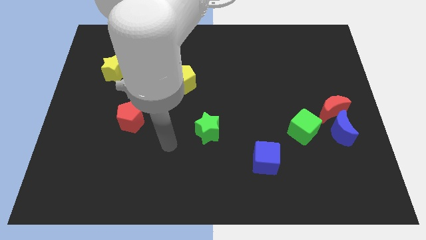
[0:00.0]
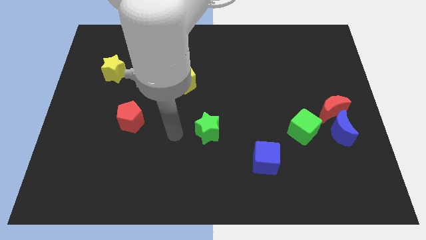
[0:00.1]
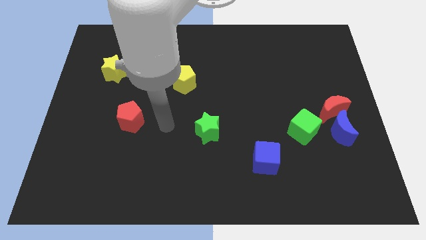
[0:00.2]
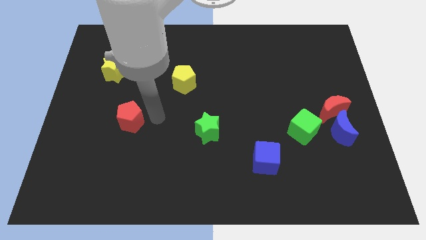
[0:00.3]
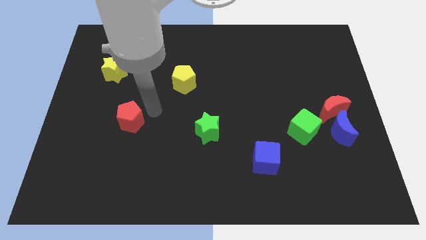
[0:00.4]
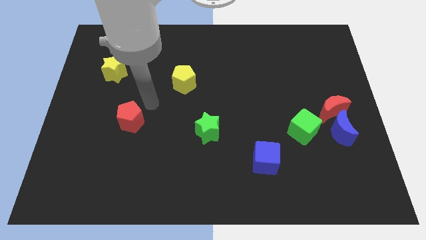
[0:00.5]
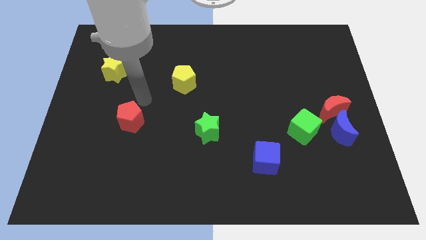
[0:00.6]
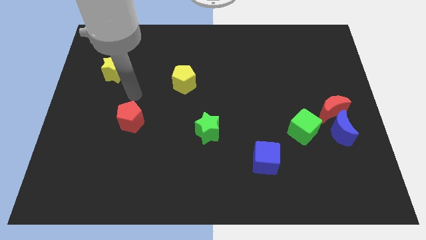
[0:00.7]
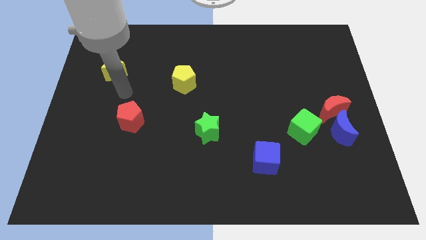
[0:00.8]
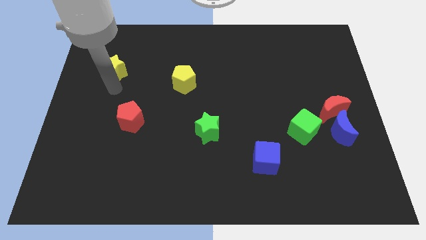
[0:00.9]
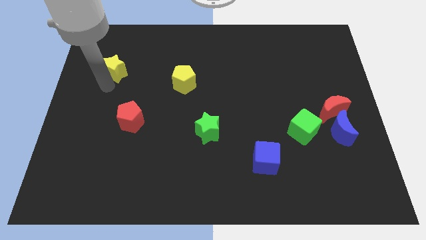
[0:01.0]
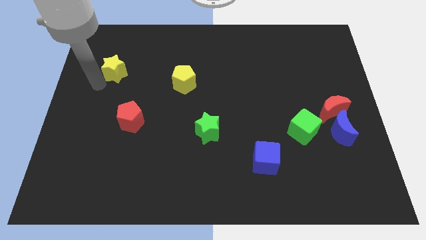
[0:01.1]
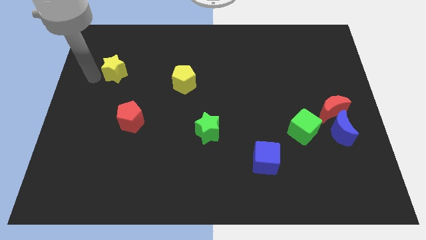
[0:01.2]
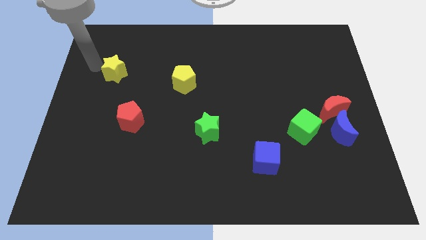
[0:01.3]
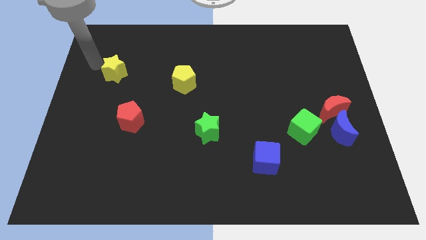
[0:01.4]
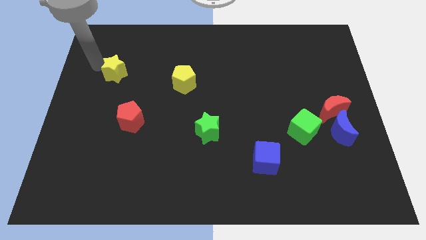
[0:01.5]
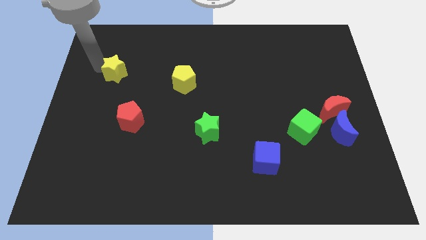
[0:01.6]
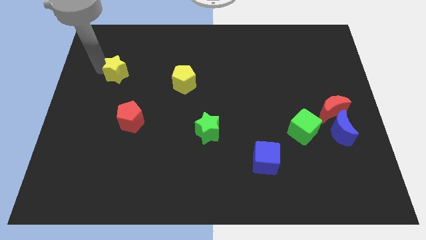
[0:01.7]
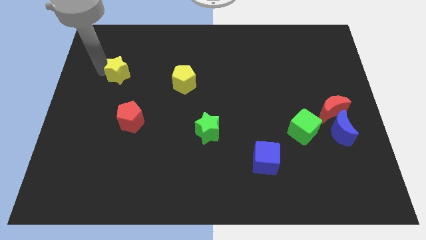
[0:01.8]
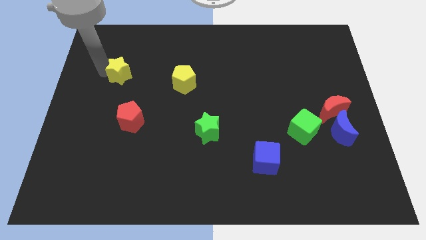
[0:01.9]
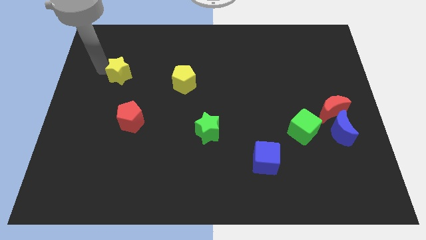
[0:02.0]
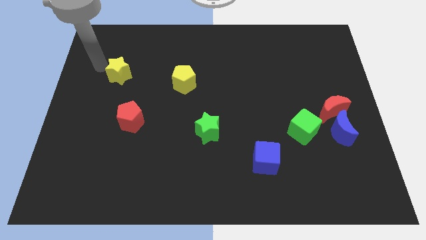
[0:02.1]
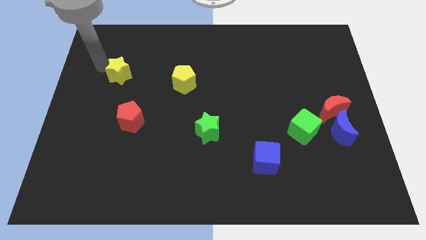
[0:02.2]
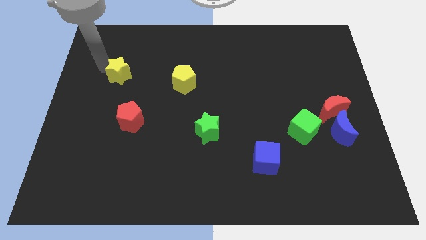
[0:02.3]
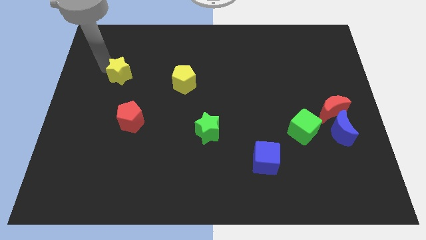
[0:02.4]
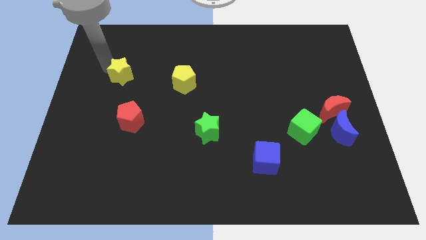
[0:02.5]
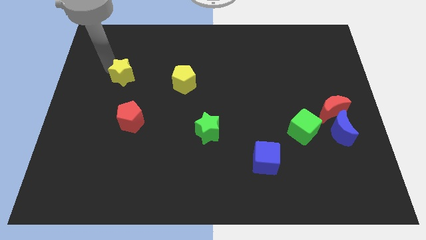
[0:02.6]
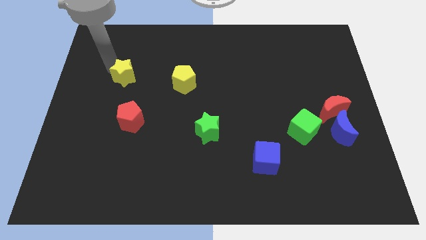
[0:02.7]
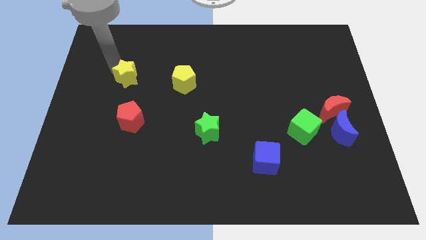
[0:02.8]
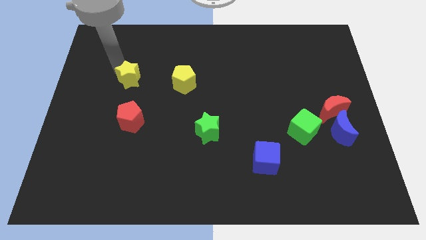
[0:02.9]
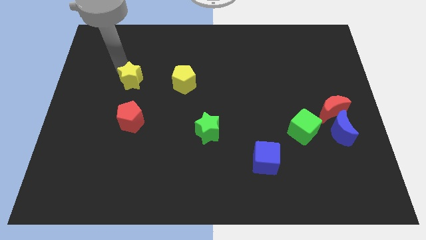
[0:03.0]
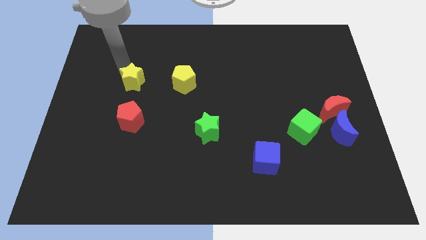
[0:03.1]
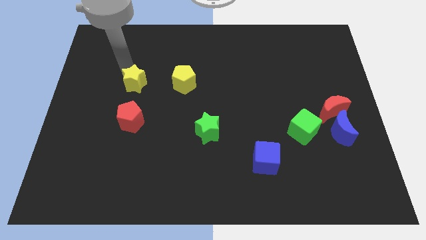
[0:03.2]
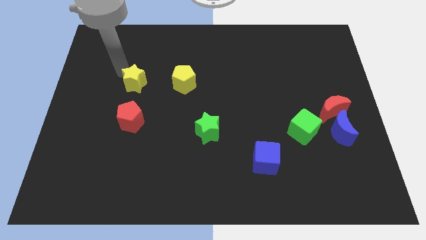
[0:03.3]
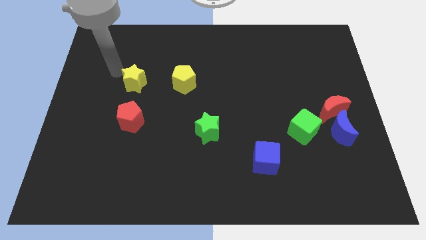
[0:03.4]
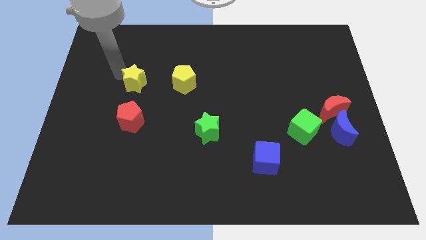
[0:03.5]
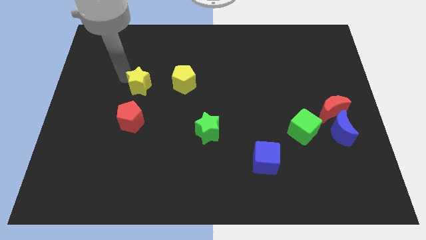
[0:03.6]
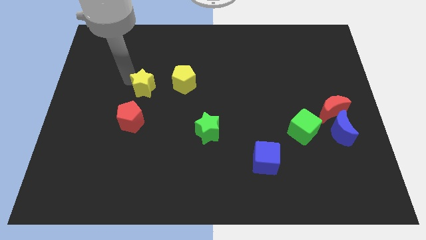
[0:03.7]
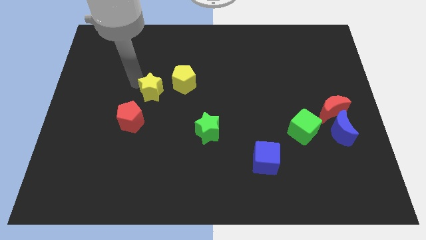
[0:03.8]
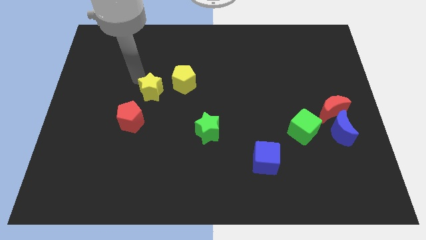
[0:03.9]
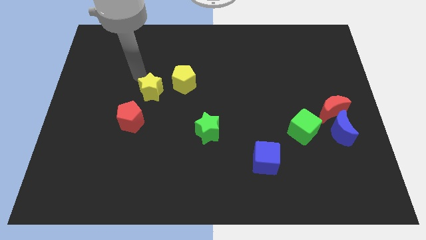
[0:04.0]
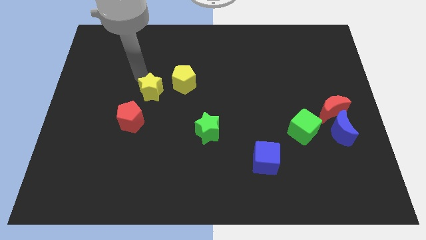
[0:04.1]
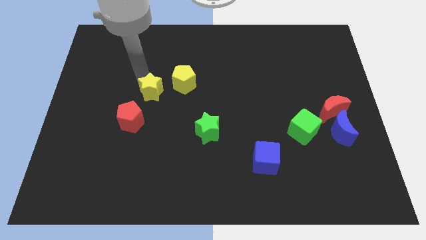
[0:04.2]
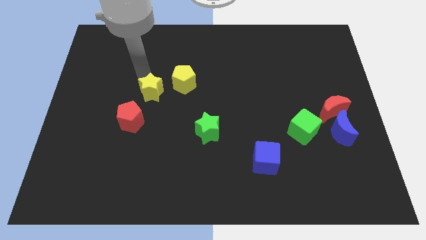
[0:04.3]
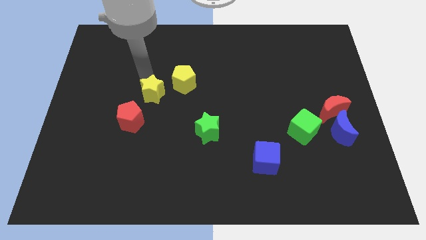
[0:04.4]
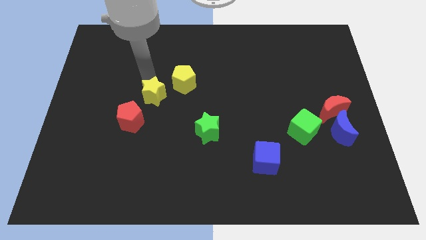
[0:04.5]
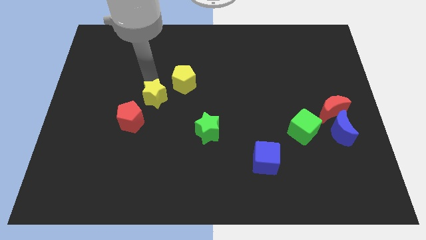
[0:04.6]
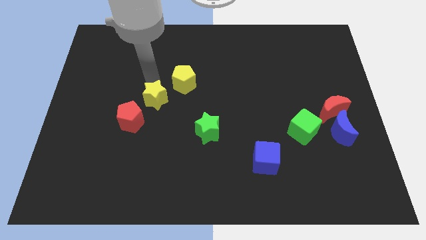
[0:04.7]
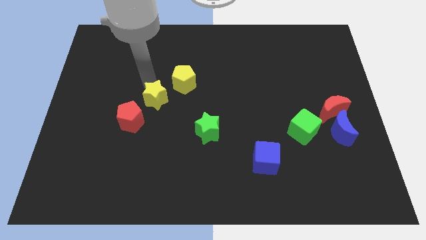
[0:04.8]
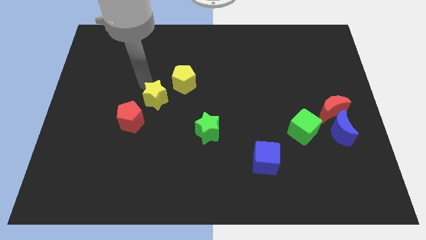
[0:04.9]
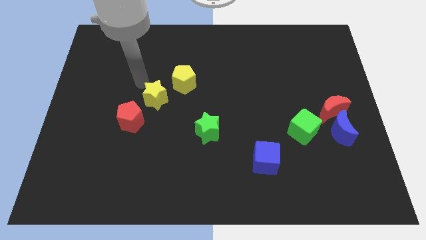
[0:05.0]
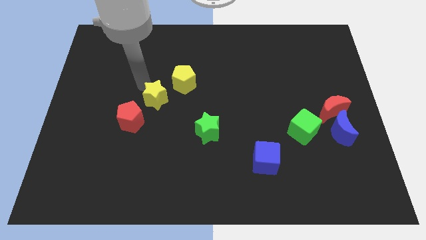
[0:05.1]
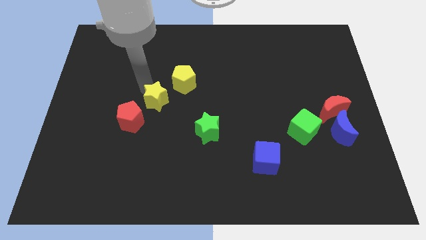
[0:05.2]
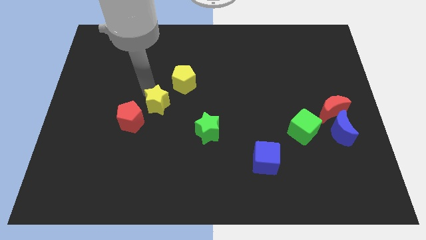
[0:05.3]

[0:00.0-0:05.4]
put the yellow star to the right side of the red pentagon

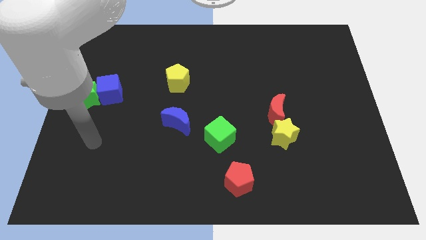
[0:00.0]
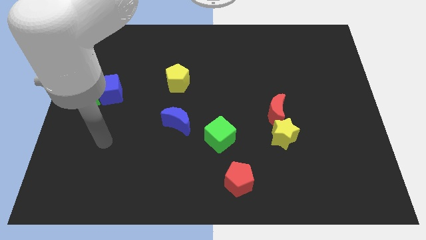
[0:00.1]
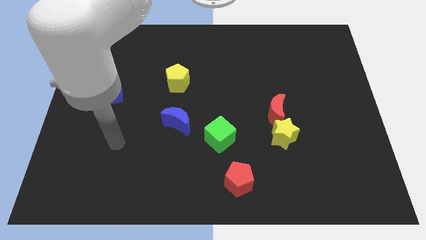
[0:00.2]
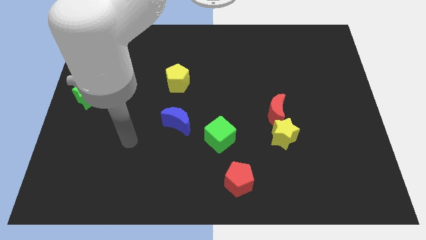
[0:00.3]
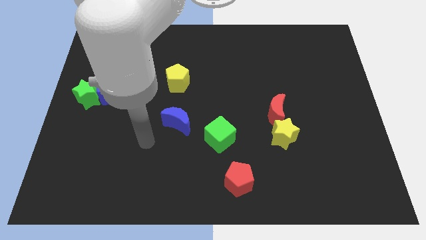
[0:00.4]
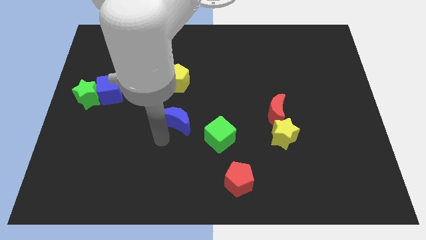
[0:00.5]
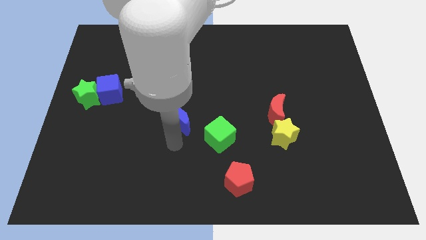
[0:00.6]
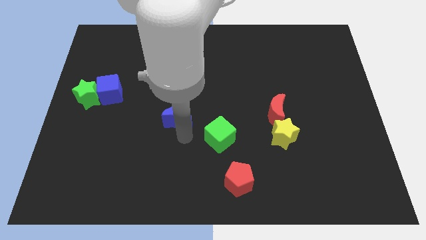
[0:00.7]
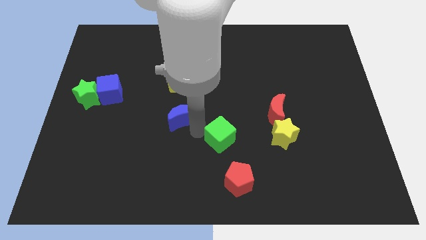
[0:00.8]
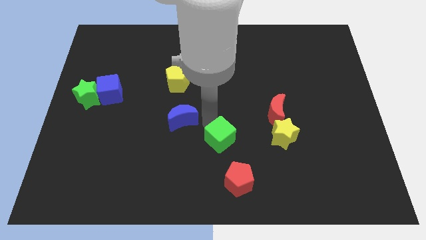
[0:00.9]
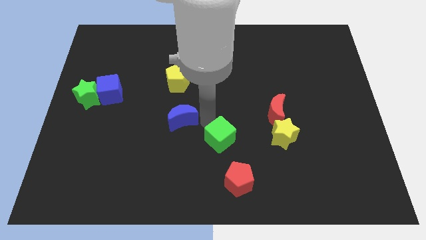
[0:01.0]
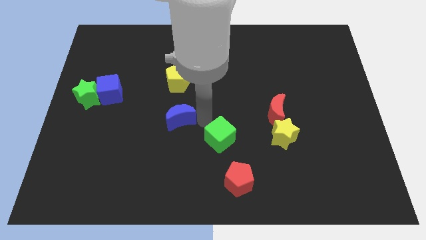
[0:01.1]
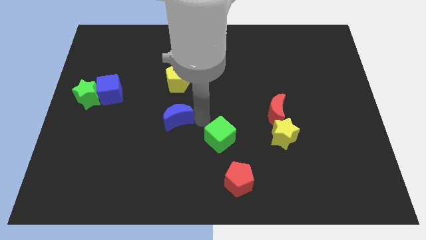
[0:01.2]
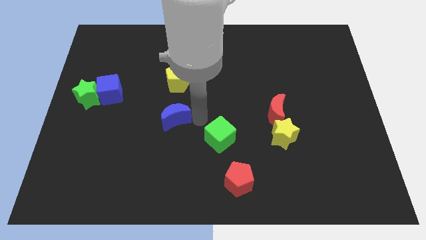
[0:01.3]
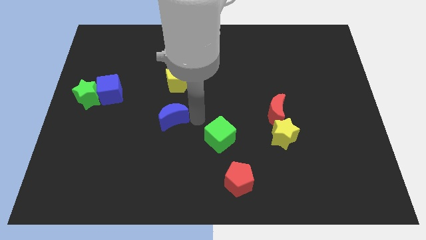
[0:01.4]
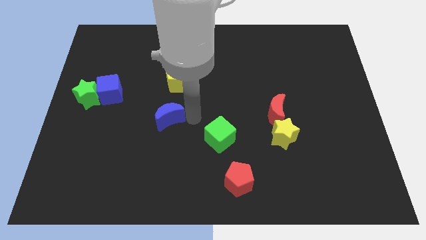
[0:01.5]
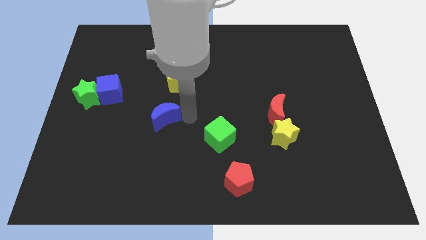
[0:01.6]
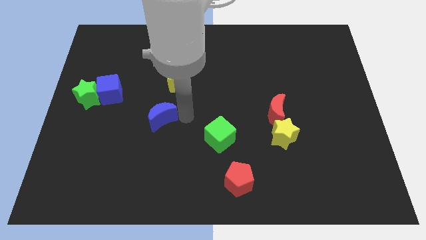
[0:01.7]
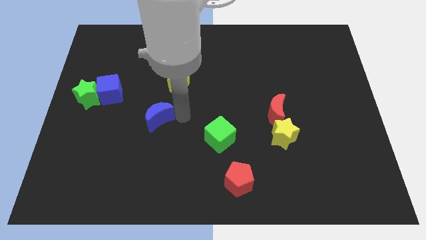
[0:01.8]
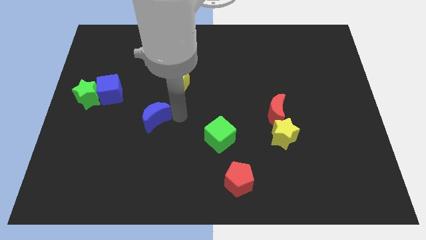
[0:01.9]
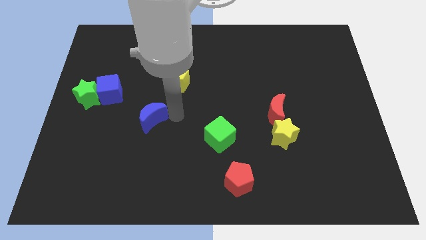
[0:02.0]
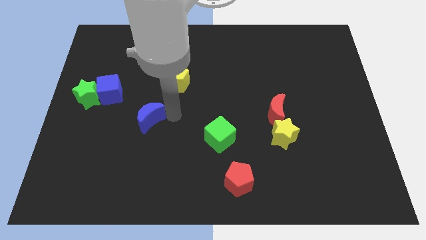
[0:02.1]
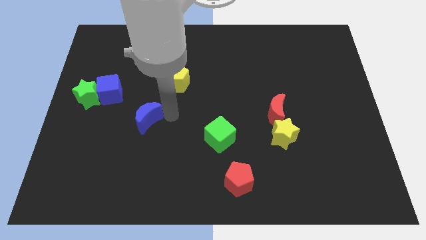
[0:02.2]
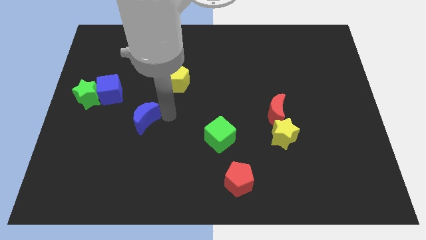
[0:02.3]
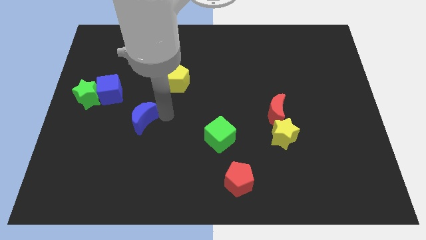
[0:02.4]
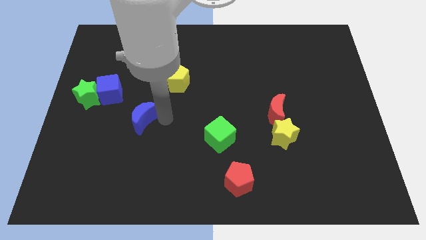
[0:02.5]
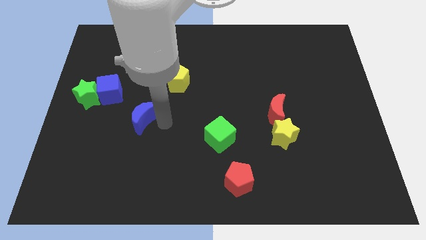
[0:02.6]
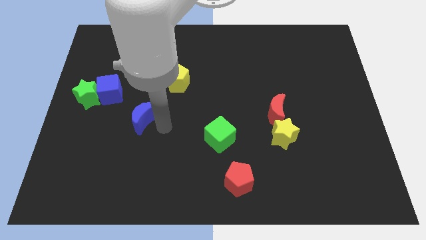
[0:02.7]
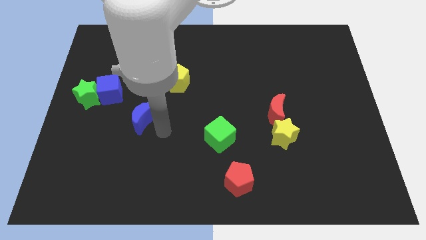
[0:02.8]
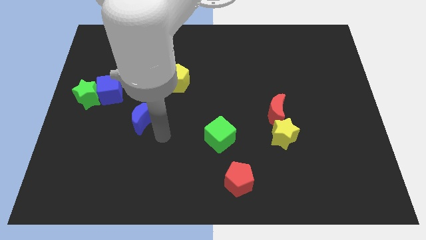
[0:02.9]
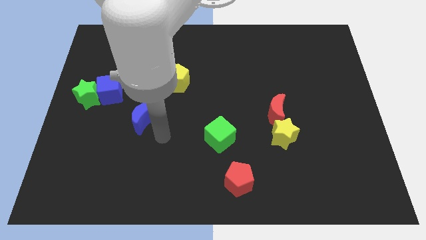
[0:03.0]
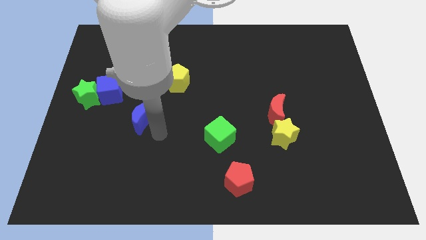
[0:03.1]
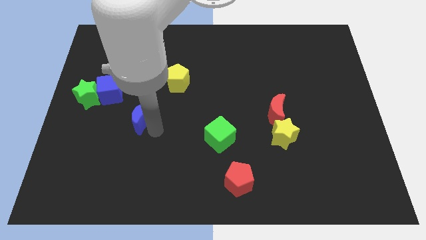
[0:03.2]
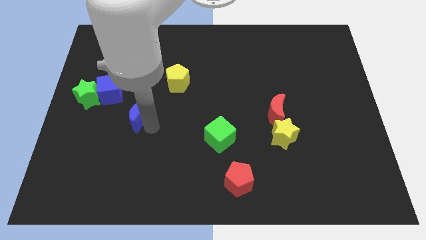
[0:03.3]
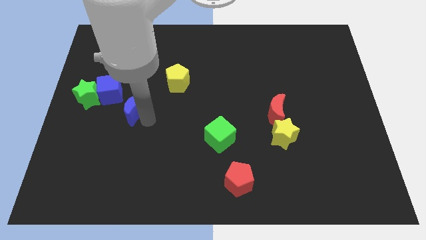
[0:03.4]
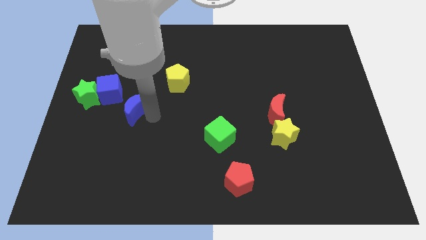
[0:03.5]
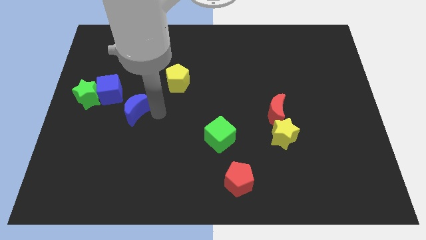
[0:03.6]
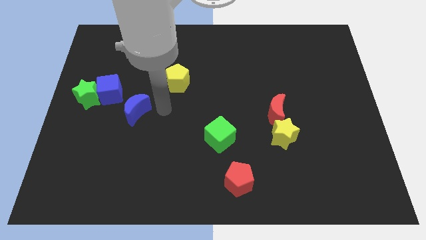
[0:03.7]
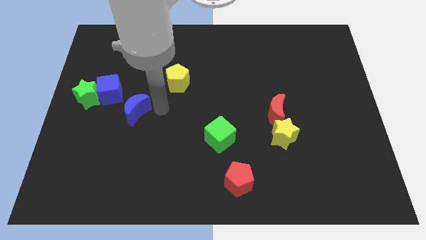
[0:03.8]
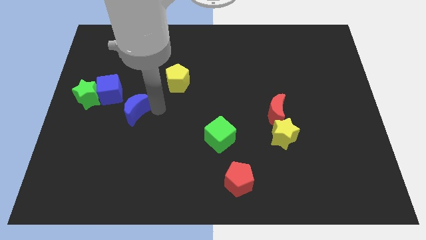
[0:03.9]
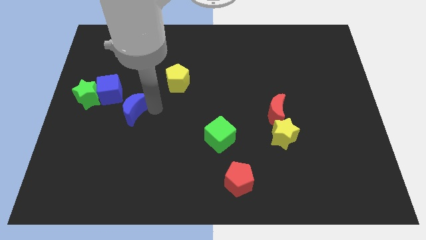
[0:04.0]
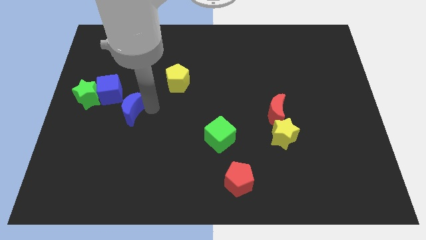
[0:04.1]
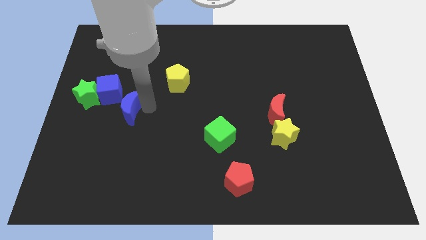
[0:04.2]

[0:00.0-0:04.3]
move the blue moon to the bottom right of the green star
